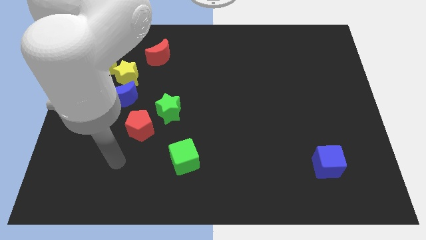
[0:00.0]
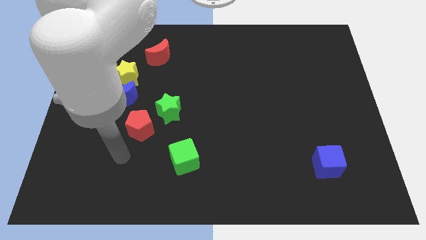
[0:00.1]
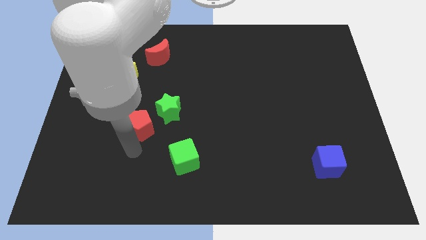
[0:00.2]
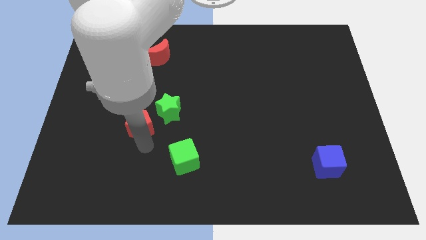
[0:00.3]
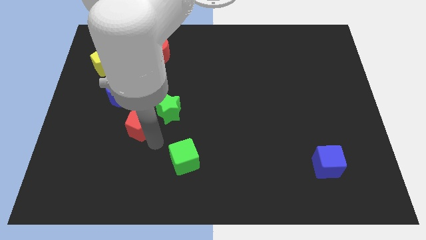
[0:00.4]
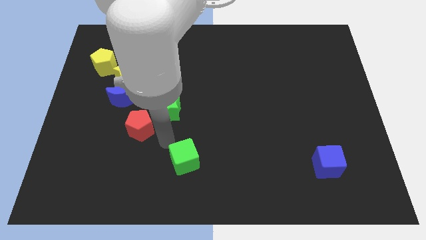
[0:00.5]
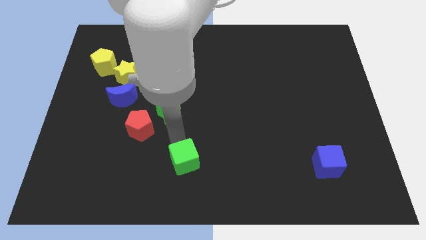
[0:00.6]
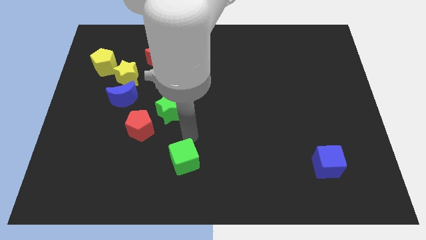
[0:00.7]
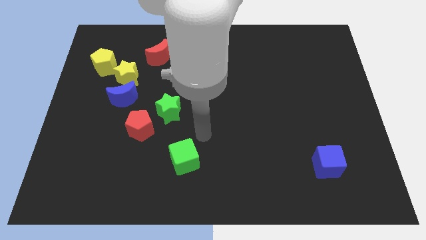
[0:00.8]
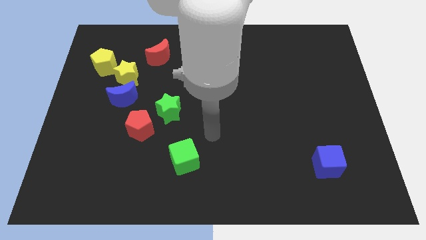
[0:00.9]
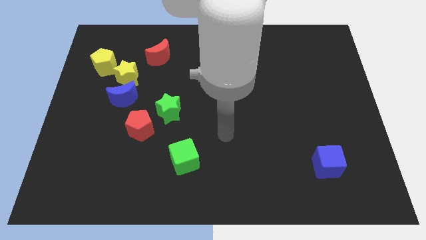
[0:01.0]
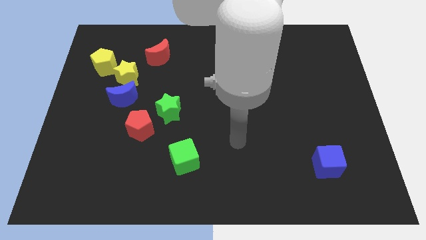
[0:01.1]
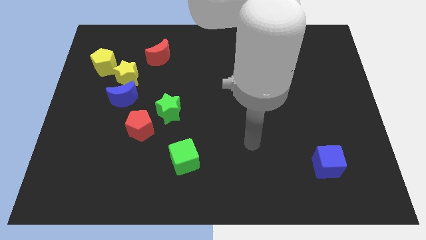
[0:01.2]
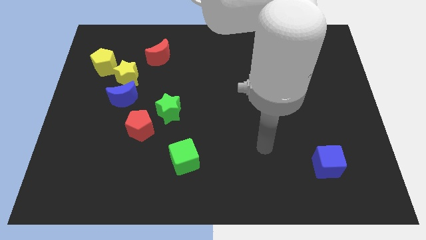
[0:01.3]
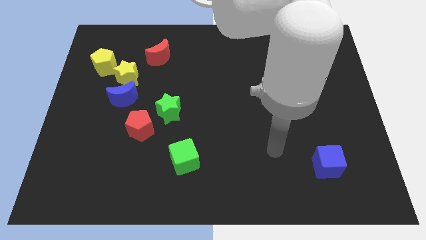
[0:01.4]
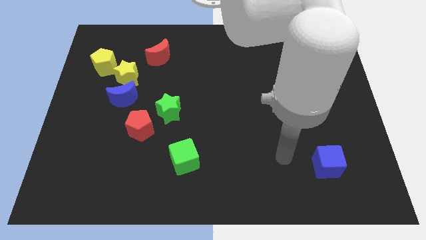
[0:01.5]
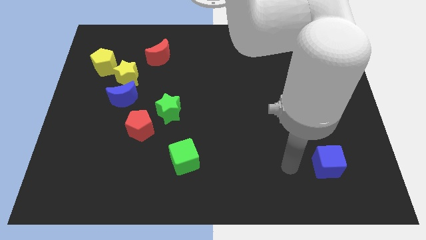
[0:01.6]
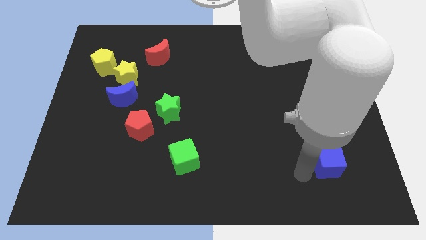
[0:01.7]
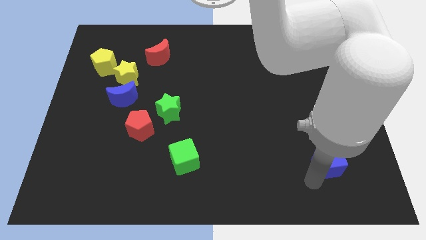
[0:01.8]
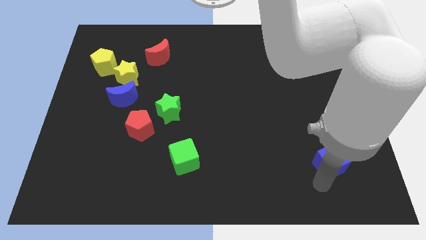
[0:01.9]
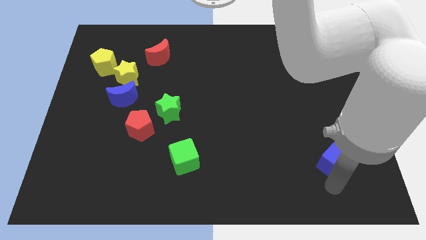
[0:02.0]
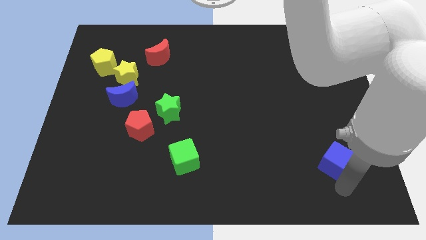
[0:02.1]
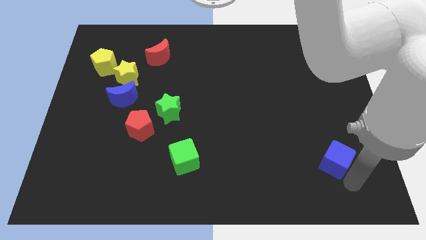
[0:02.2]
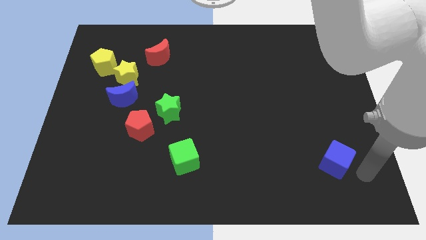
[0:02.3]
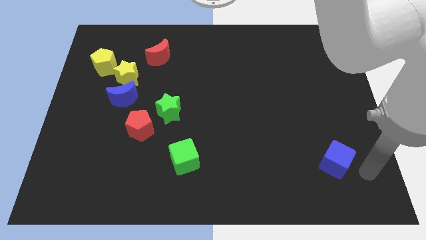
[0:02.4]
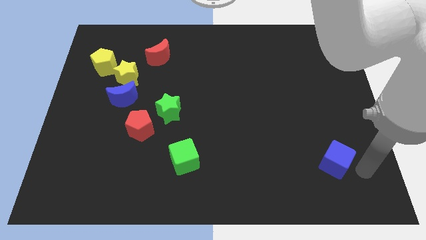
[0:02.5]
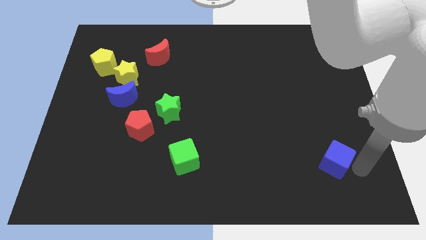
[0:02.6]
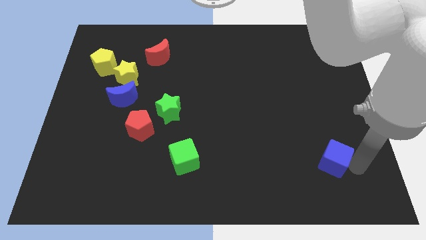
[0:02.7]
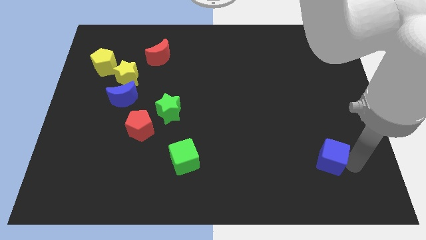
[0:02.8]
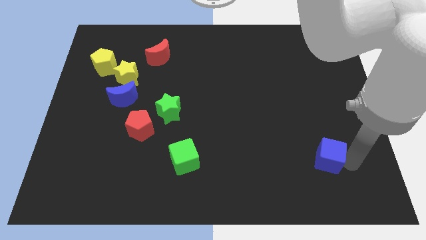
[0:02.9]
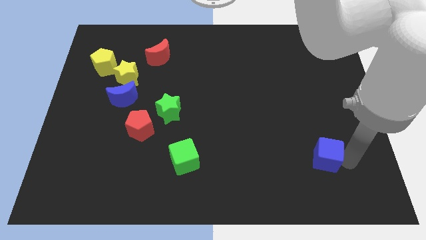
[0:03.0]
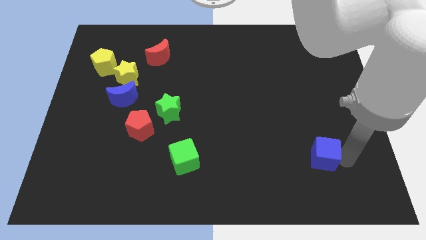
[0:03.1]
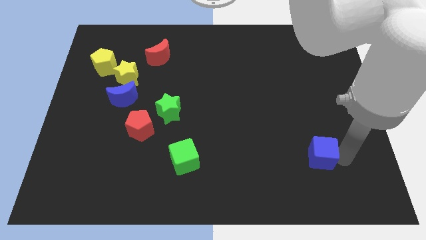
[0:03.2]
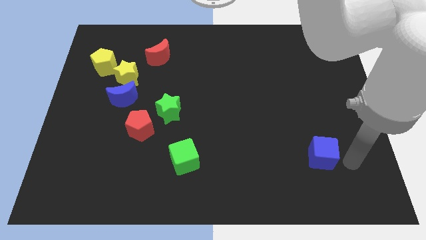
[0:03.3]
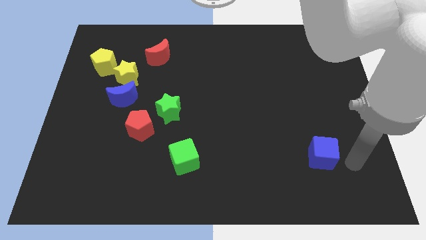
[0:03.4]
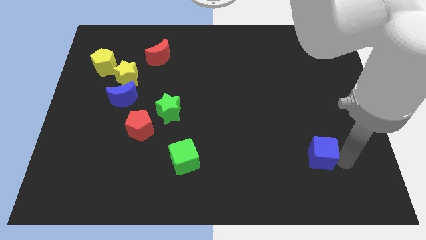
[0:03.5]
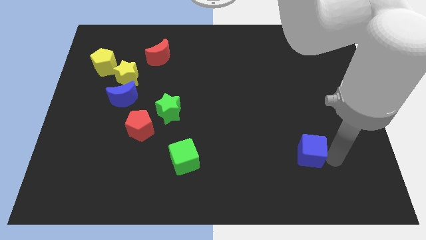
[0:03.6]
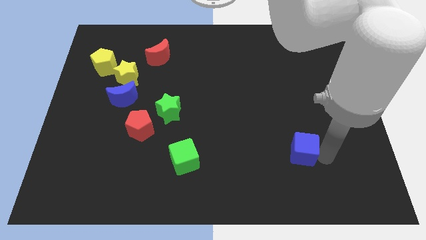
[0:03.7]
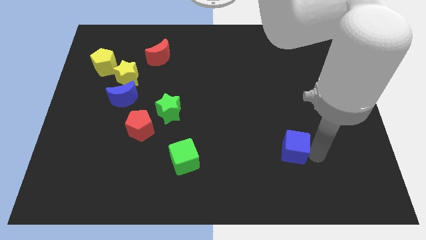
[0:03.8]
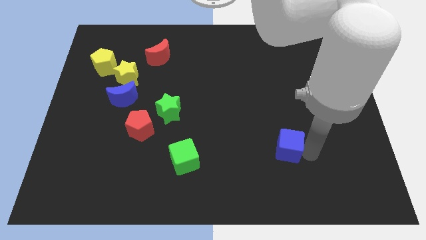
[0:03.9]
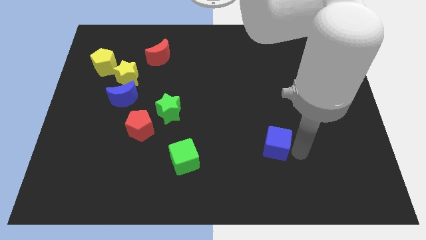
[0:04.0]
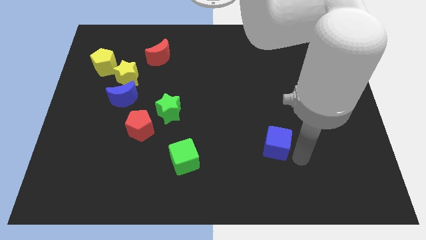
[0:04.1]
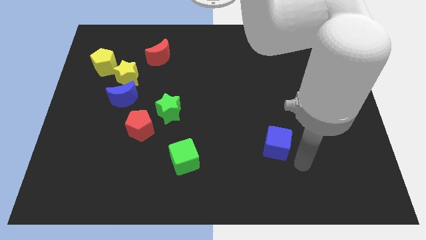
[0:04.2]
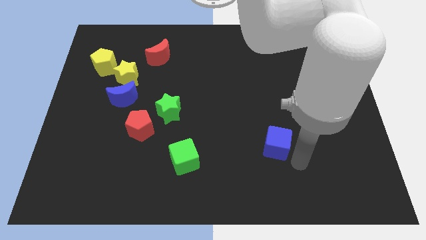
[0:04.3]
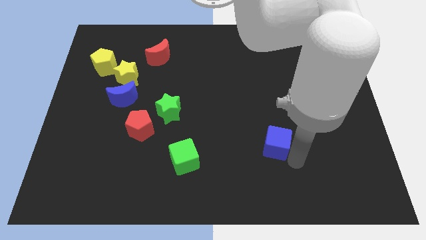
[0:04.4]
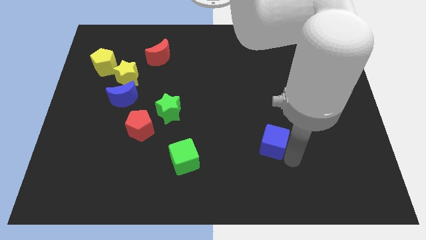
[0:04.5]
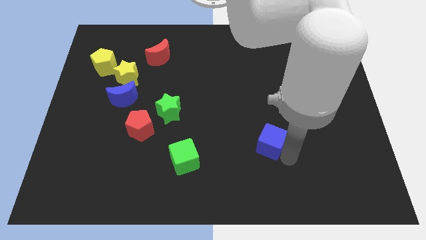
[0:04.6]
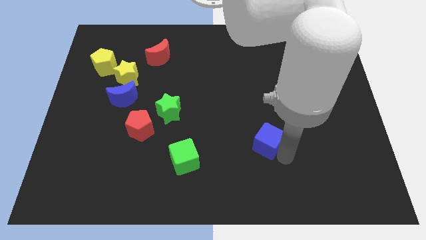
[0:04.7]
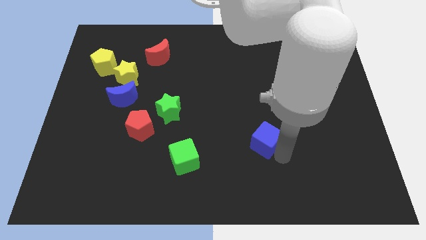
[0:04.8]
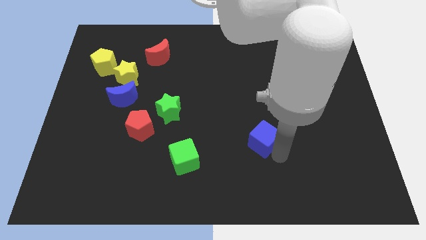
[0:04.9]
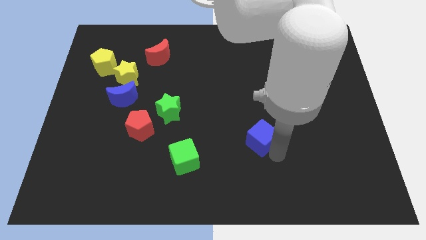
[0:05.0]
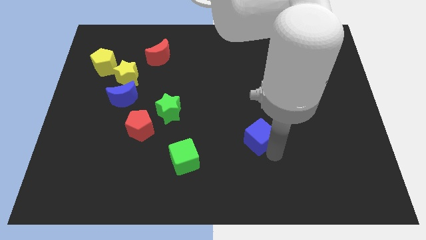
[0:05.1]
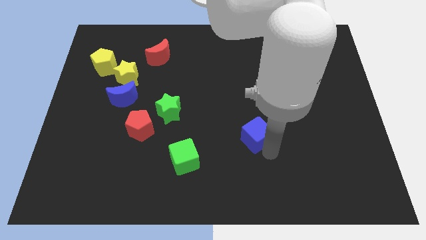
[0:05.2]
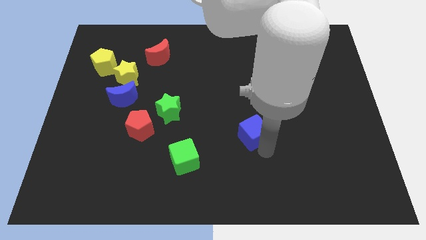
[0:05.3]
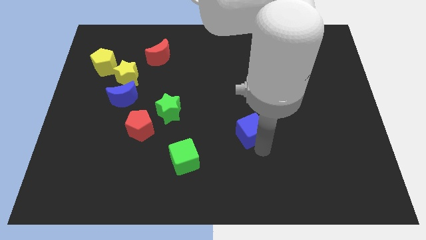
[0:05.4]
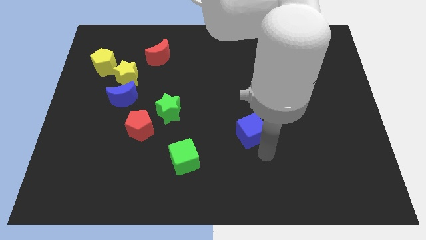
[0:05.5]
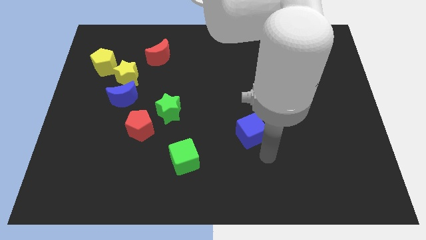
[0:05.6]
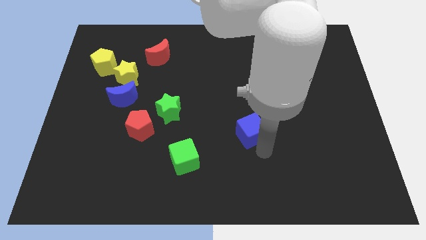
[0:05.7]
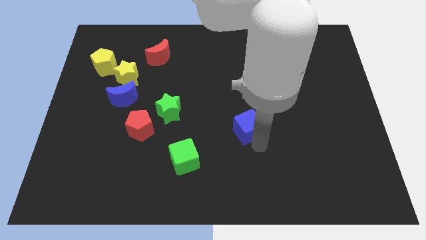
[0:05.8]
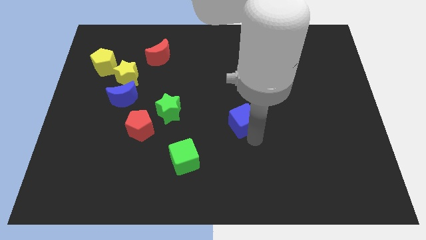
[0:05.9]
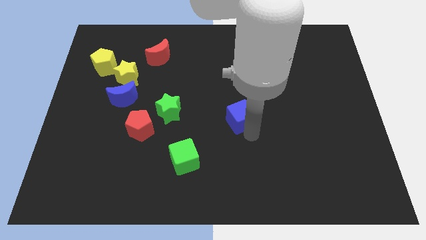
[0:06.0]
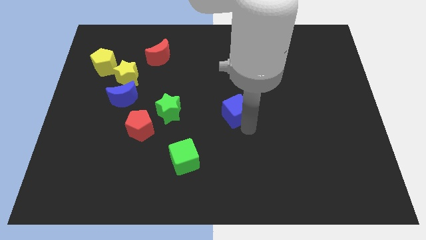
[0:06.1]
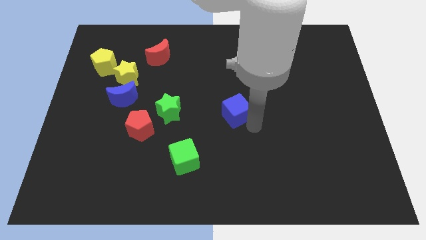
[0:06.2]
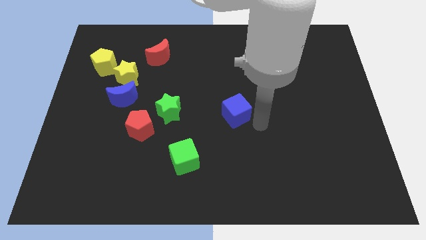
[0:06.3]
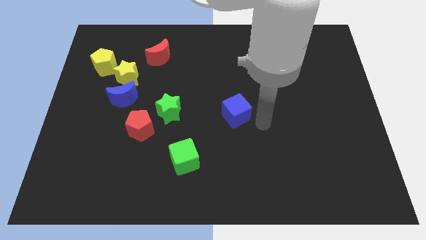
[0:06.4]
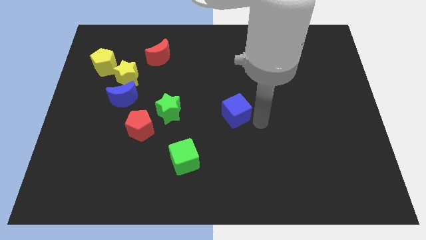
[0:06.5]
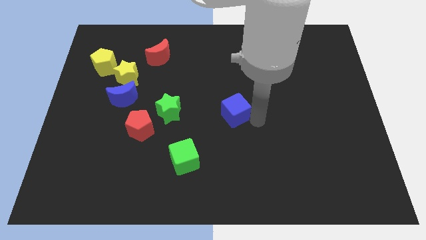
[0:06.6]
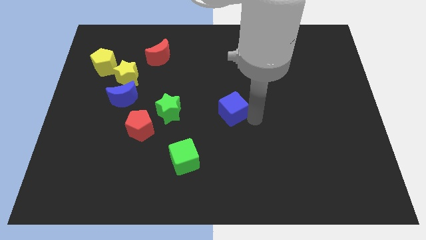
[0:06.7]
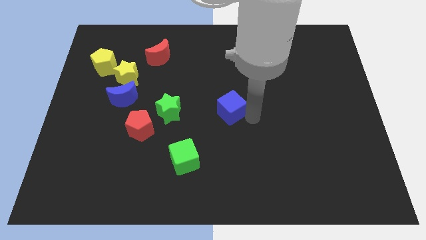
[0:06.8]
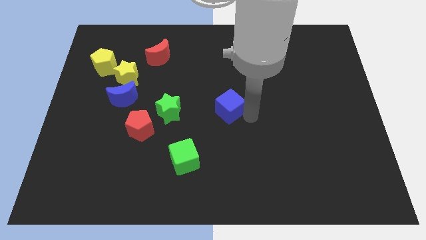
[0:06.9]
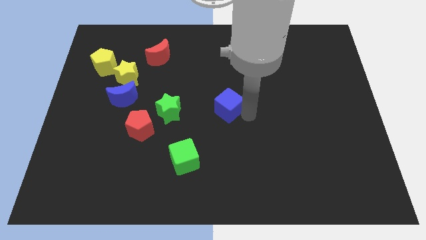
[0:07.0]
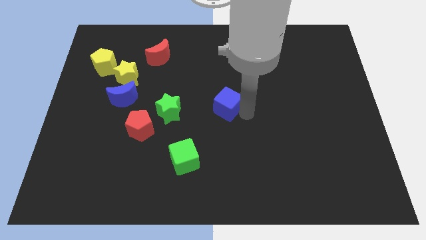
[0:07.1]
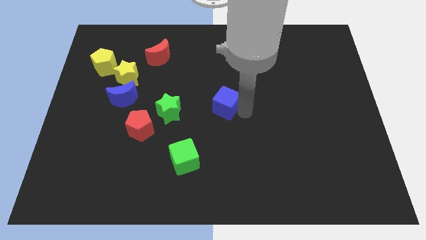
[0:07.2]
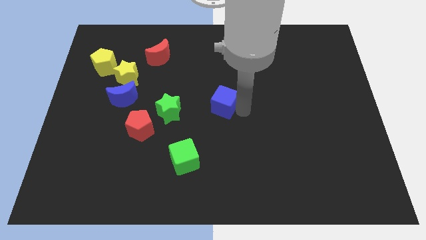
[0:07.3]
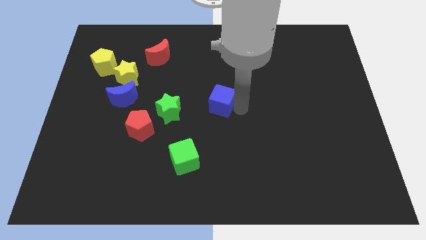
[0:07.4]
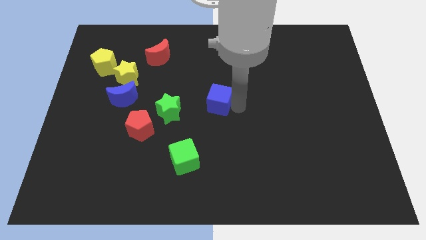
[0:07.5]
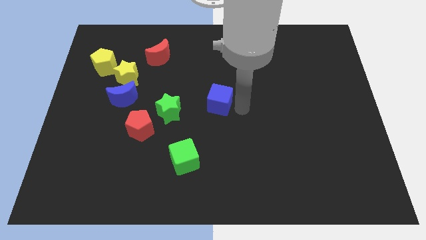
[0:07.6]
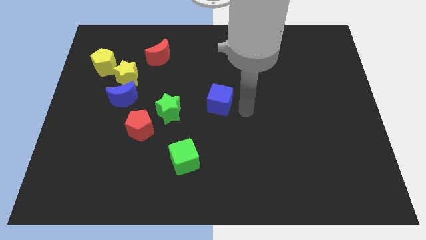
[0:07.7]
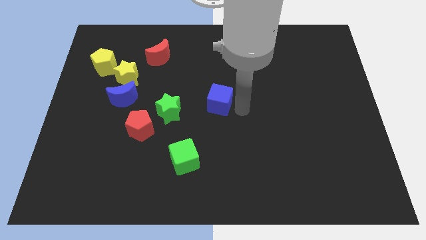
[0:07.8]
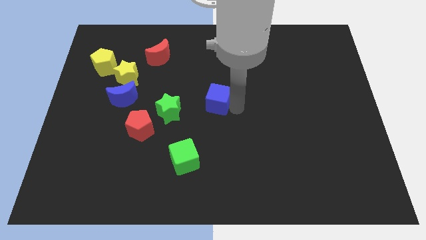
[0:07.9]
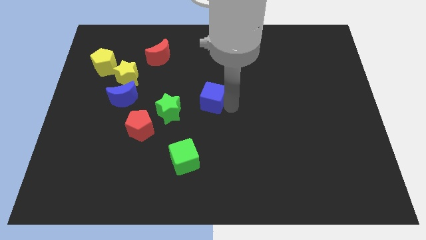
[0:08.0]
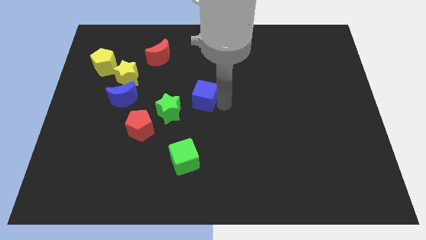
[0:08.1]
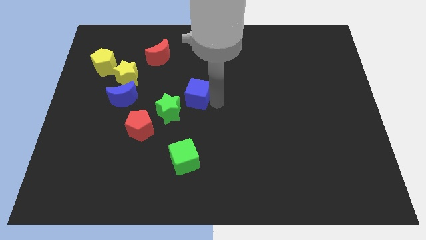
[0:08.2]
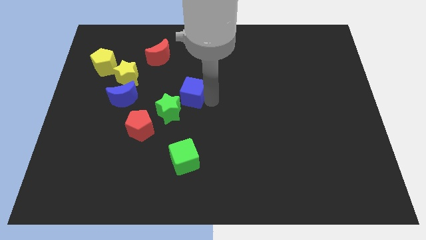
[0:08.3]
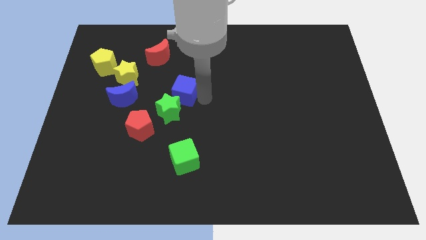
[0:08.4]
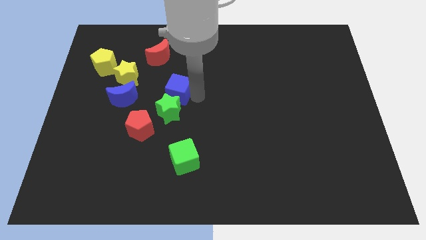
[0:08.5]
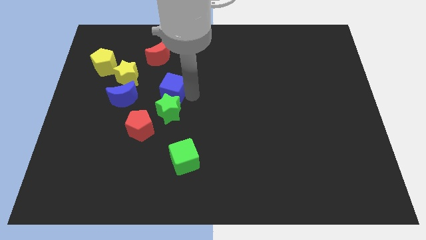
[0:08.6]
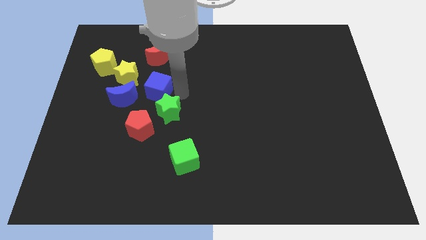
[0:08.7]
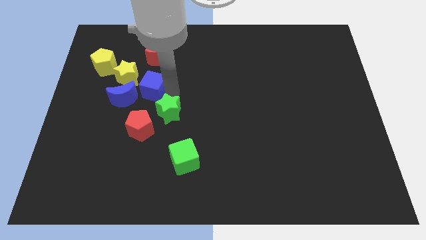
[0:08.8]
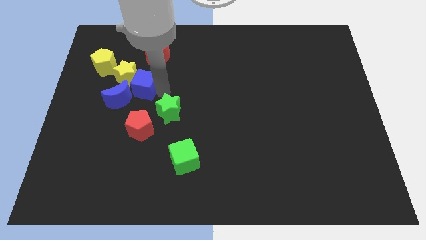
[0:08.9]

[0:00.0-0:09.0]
move the blue cube close to the yellow star
